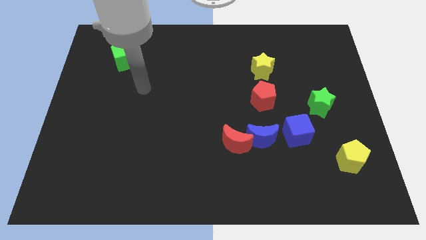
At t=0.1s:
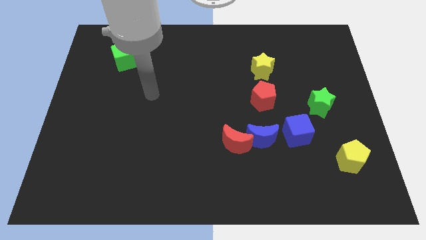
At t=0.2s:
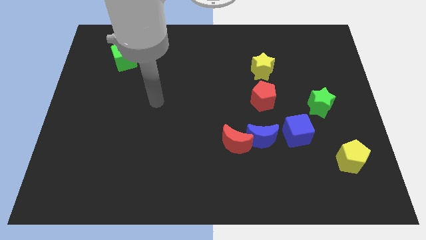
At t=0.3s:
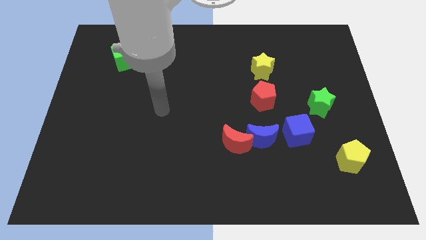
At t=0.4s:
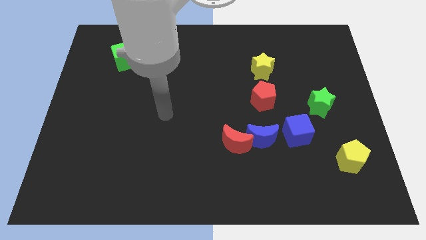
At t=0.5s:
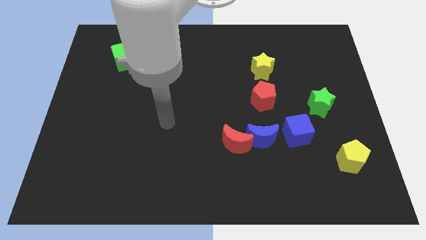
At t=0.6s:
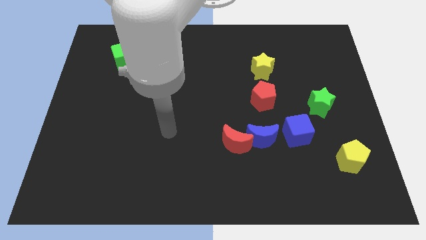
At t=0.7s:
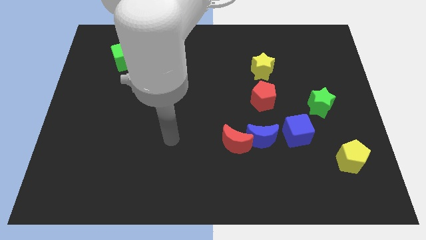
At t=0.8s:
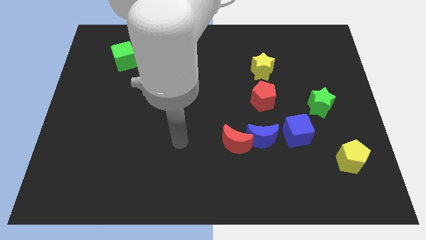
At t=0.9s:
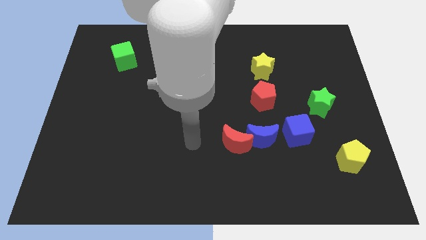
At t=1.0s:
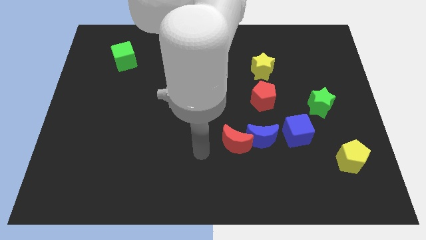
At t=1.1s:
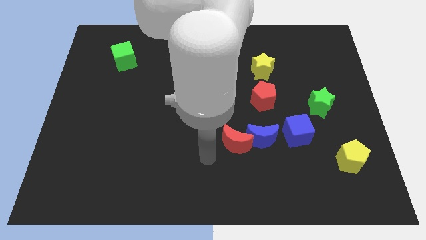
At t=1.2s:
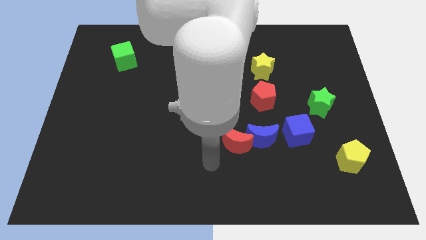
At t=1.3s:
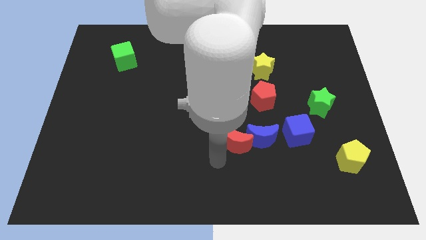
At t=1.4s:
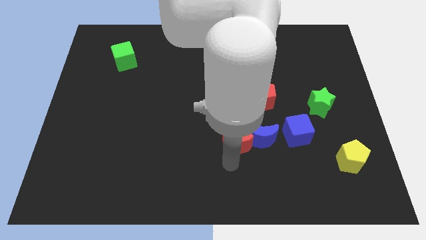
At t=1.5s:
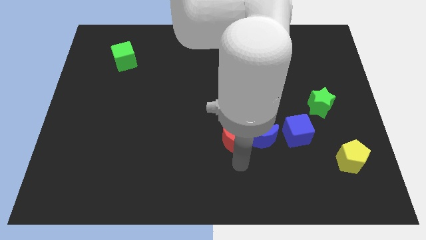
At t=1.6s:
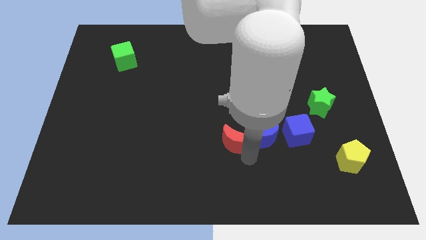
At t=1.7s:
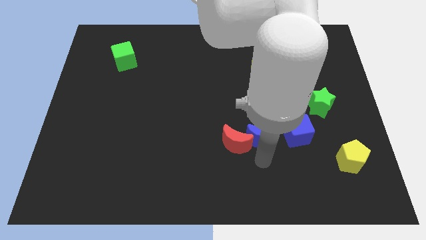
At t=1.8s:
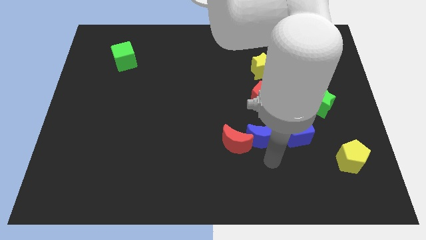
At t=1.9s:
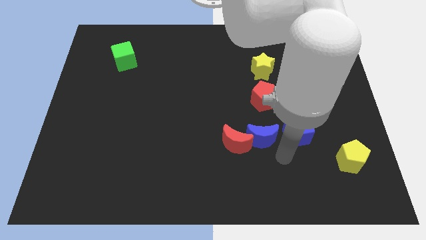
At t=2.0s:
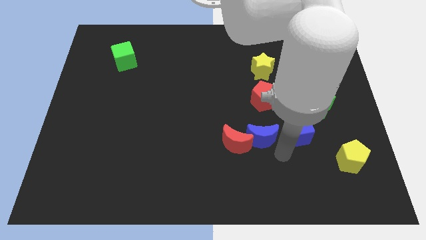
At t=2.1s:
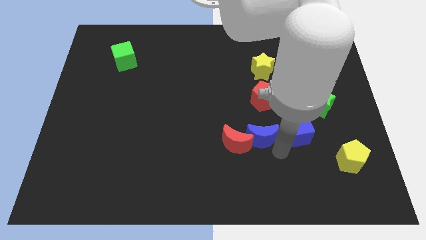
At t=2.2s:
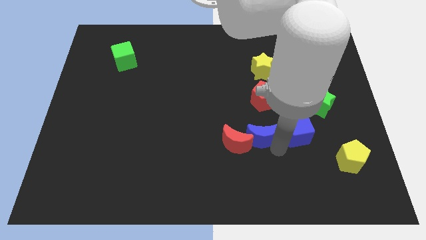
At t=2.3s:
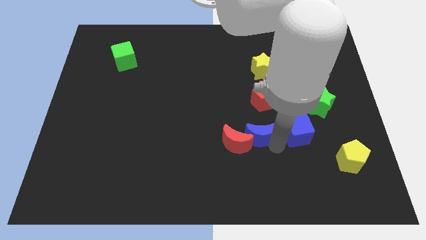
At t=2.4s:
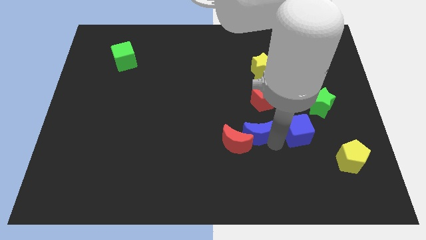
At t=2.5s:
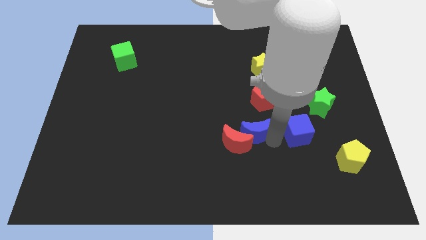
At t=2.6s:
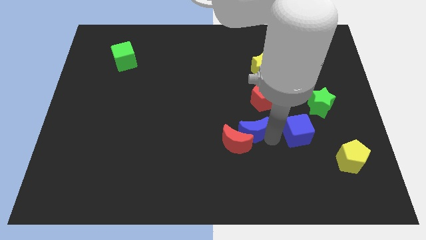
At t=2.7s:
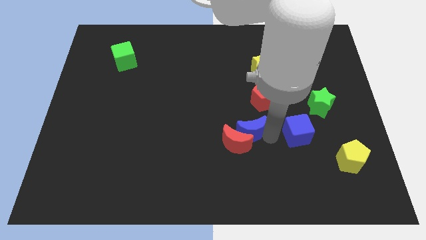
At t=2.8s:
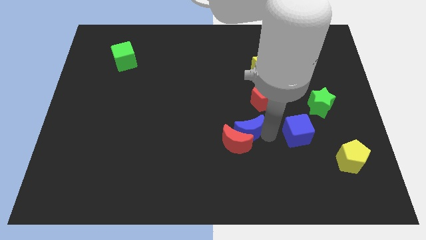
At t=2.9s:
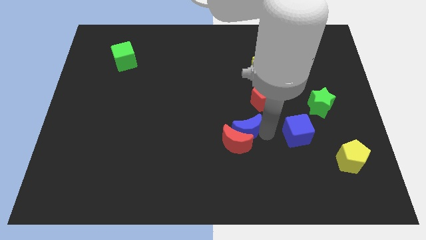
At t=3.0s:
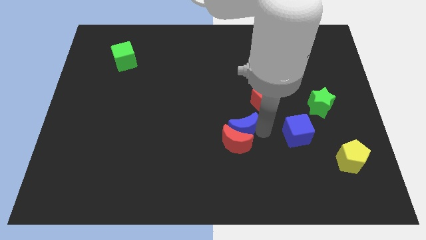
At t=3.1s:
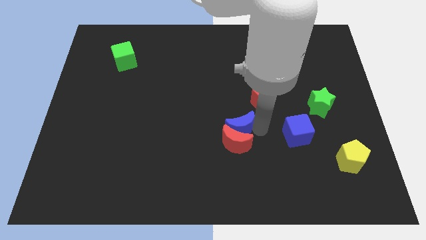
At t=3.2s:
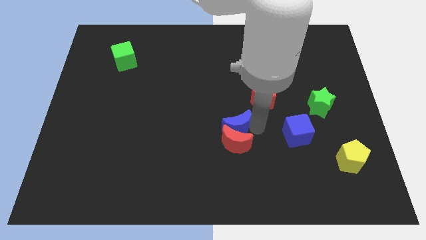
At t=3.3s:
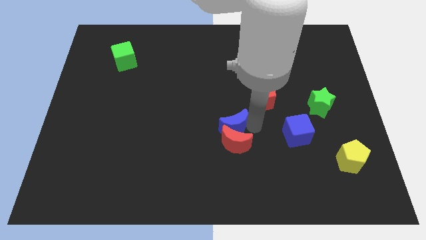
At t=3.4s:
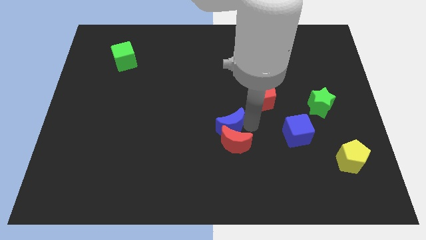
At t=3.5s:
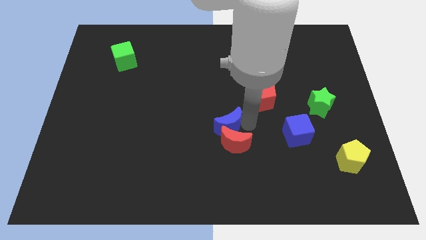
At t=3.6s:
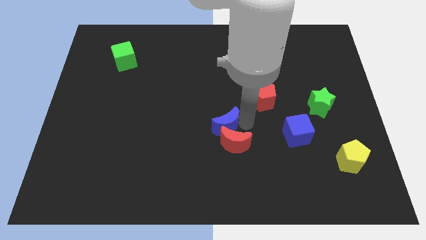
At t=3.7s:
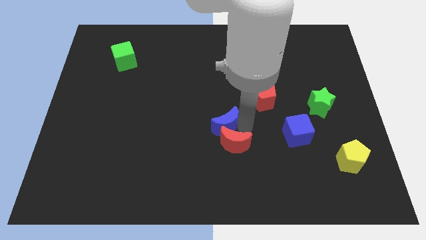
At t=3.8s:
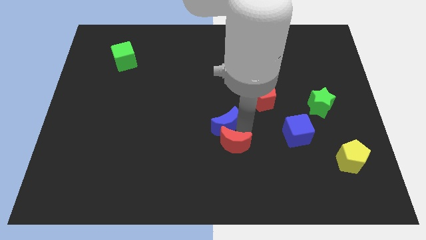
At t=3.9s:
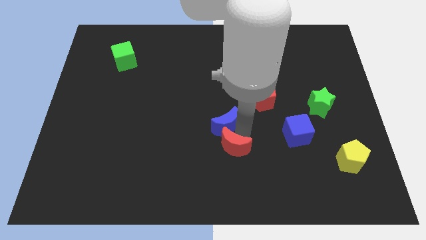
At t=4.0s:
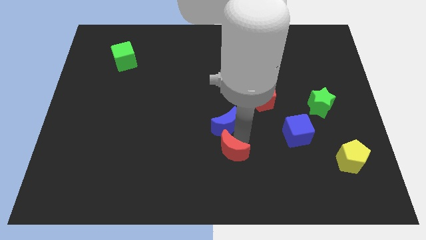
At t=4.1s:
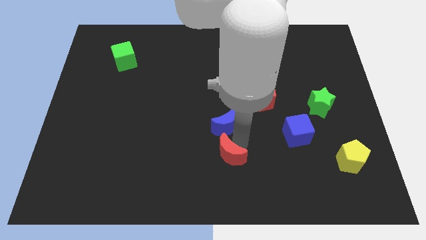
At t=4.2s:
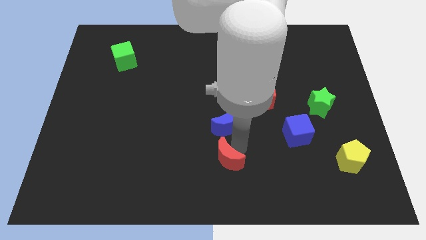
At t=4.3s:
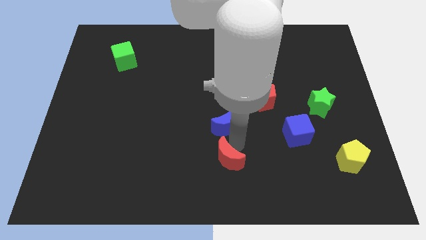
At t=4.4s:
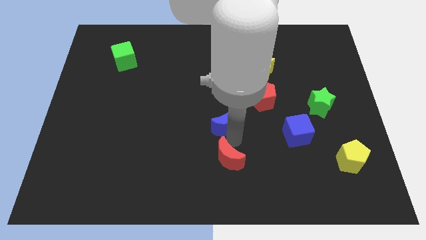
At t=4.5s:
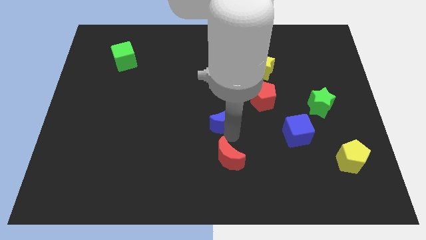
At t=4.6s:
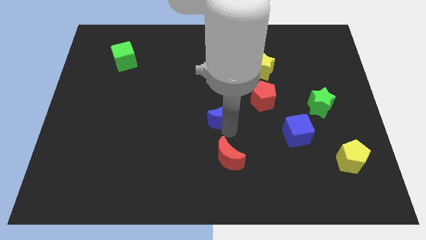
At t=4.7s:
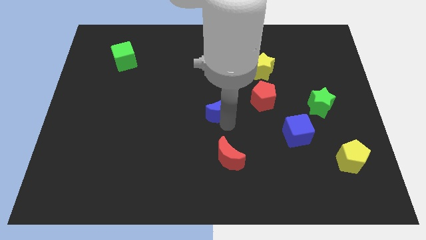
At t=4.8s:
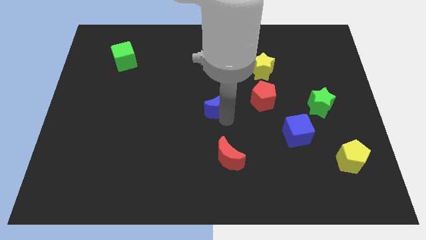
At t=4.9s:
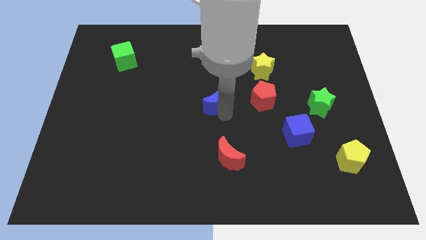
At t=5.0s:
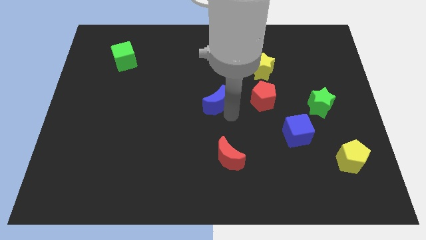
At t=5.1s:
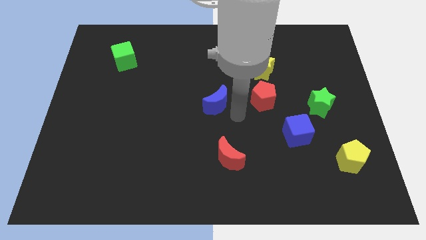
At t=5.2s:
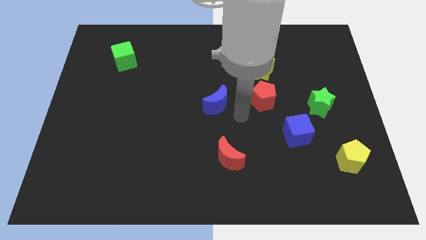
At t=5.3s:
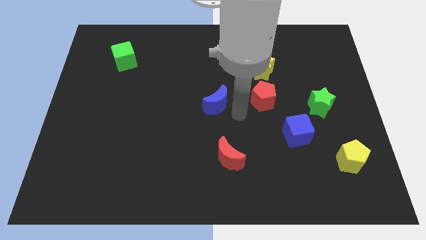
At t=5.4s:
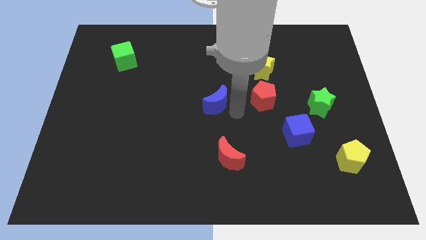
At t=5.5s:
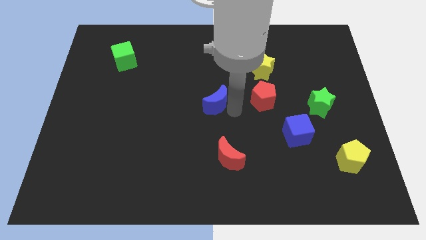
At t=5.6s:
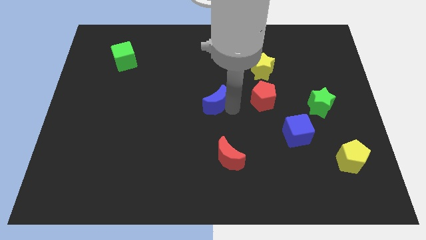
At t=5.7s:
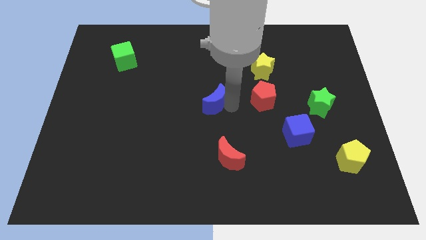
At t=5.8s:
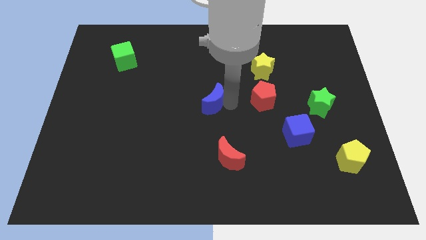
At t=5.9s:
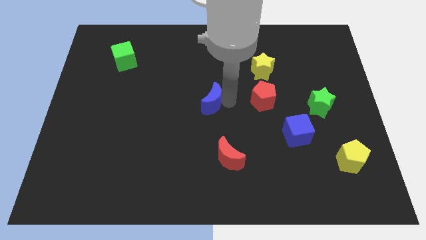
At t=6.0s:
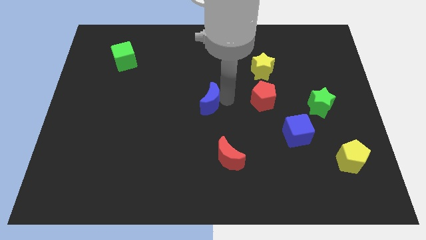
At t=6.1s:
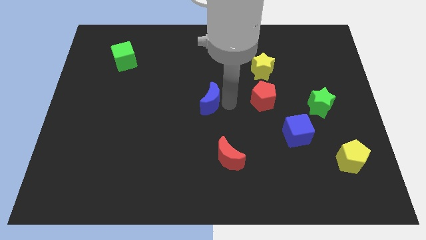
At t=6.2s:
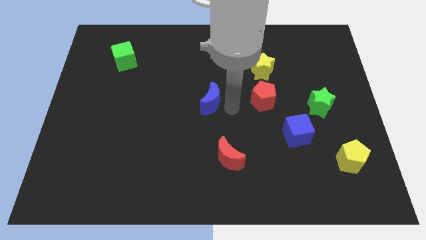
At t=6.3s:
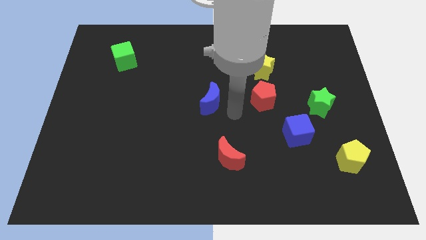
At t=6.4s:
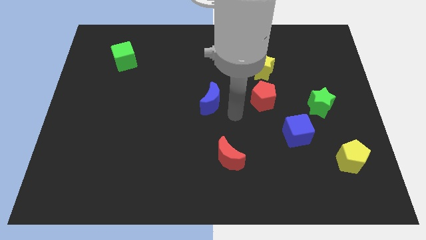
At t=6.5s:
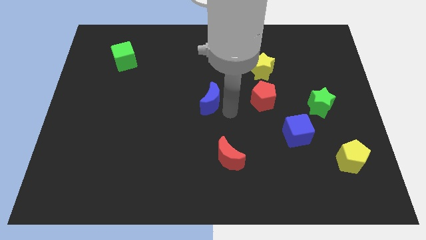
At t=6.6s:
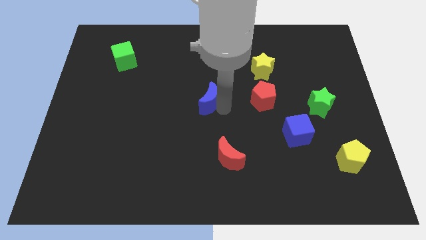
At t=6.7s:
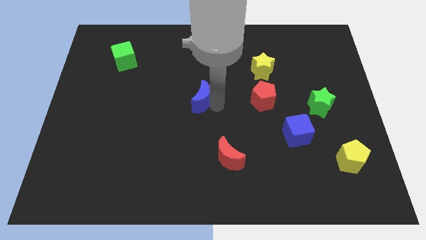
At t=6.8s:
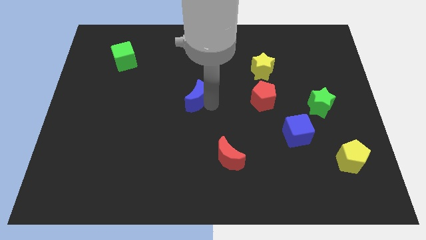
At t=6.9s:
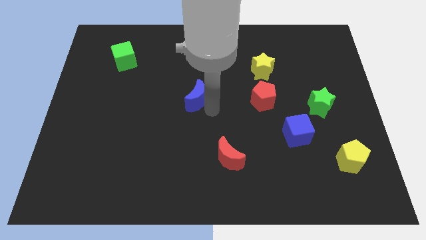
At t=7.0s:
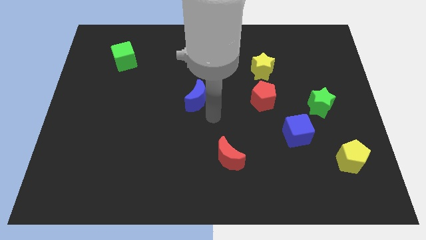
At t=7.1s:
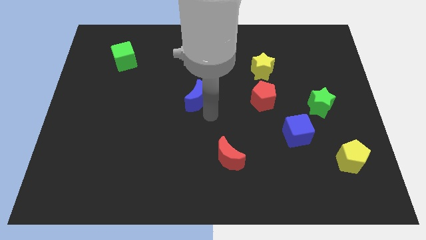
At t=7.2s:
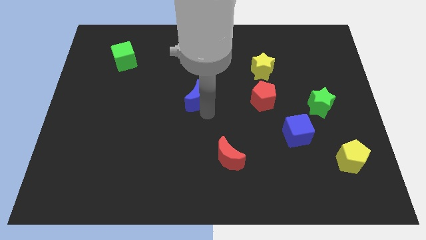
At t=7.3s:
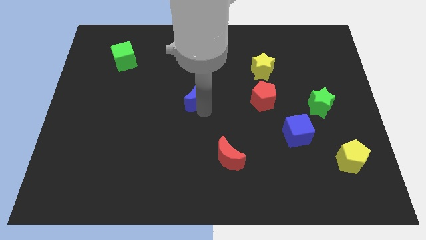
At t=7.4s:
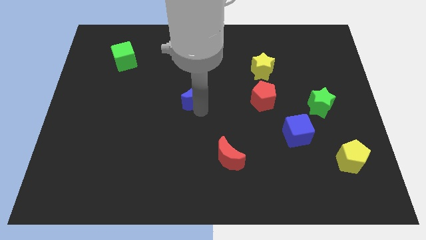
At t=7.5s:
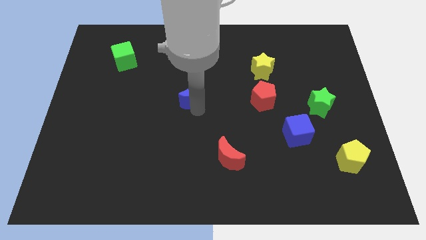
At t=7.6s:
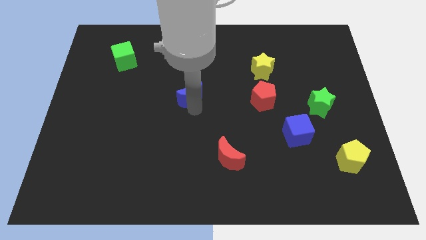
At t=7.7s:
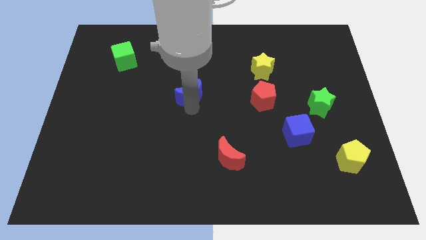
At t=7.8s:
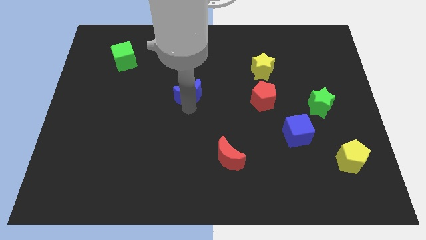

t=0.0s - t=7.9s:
move the blue moon upwards and left
